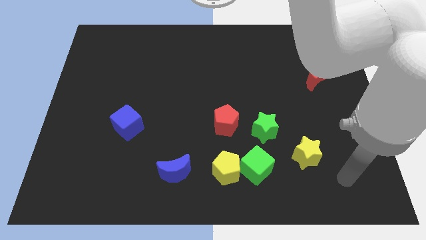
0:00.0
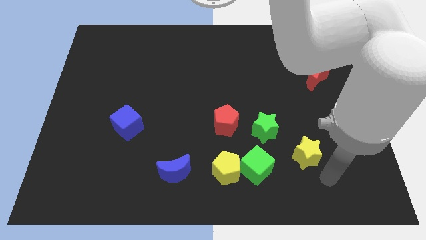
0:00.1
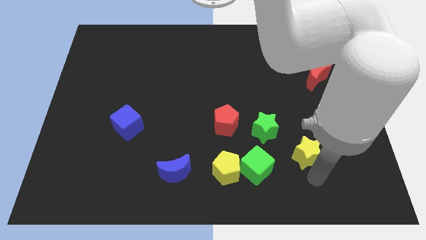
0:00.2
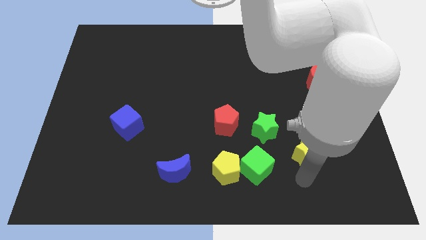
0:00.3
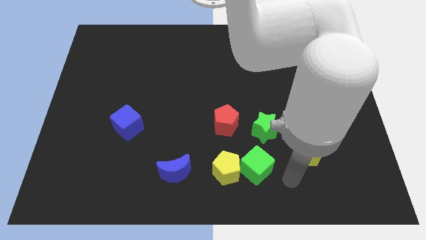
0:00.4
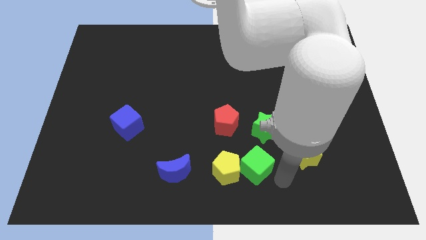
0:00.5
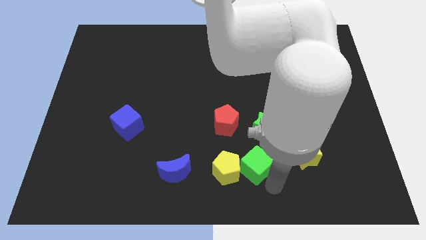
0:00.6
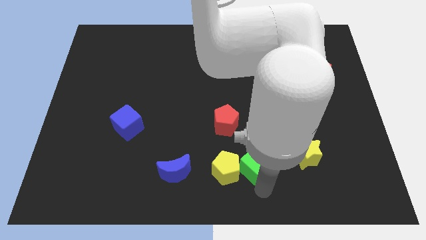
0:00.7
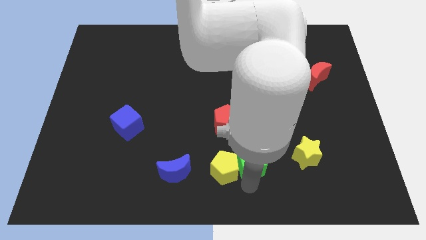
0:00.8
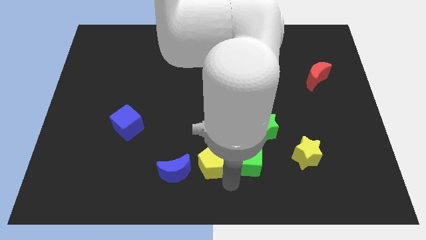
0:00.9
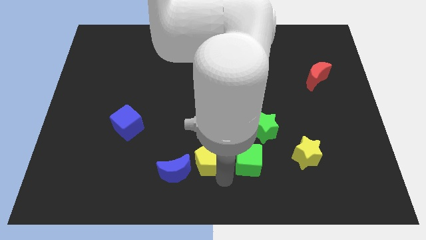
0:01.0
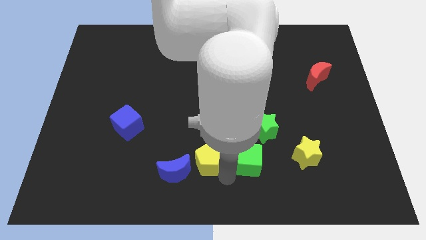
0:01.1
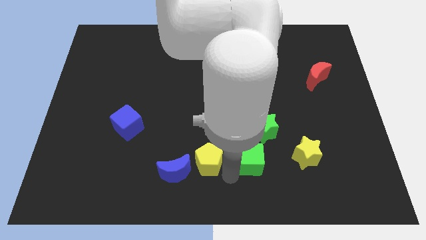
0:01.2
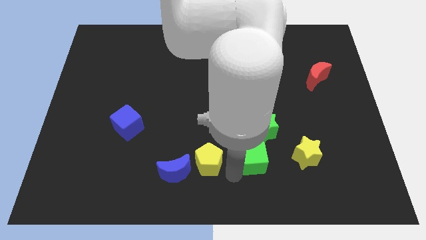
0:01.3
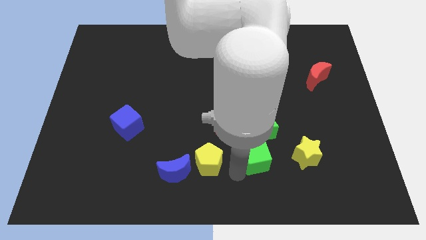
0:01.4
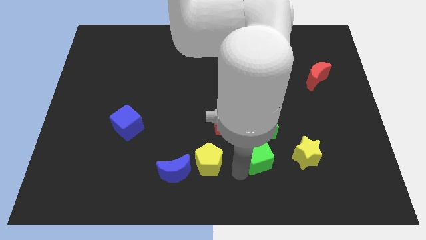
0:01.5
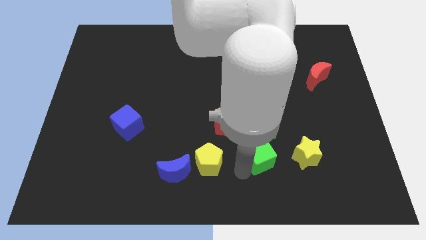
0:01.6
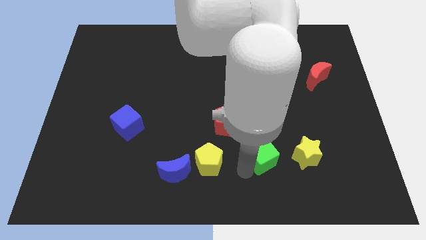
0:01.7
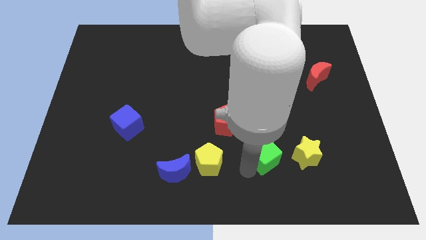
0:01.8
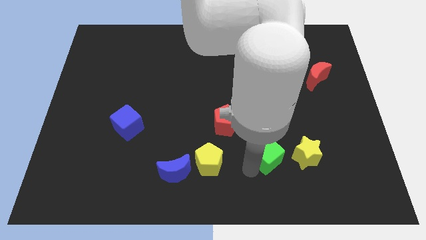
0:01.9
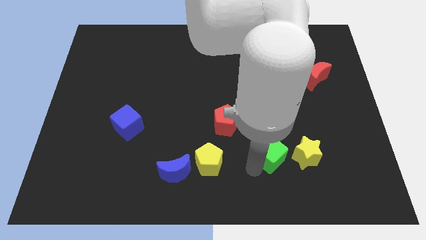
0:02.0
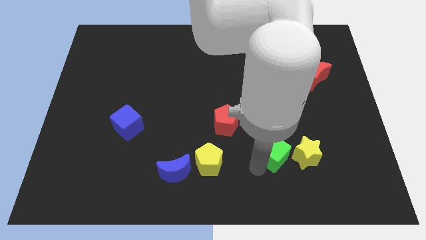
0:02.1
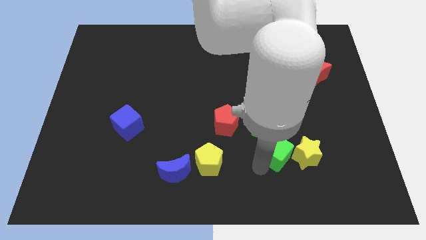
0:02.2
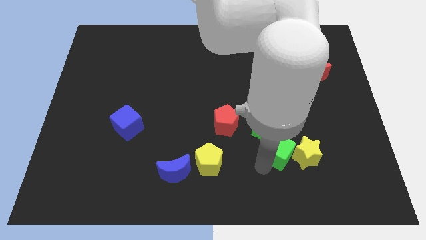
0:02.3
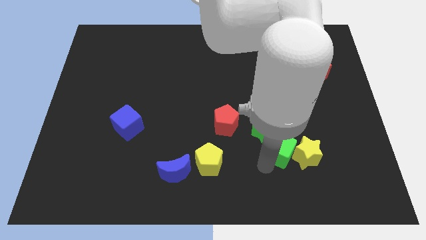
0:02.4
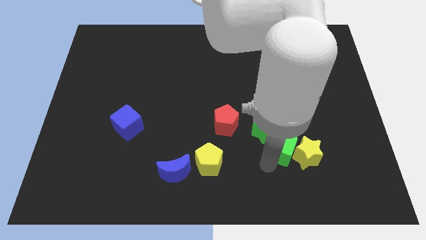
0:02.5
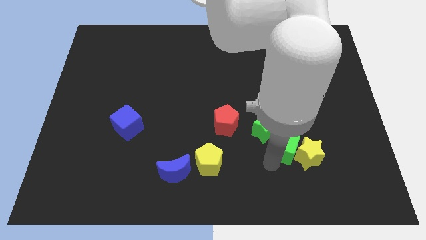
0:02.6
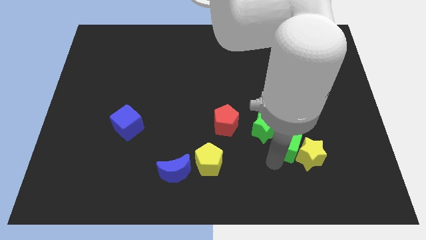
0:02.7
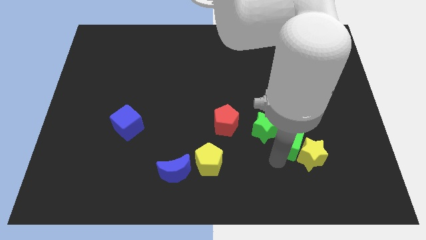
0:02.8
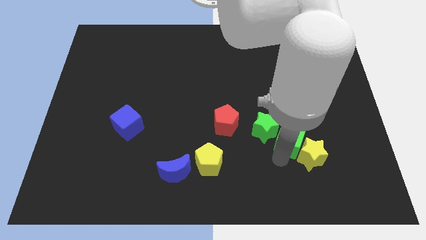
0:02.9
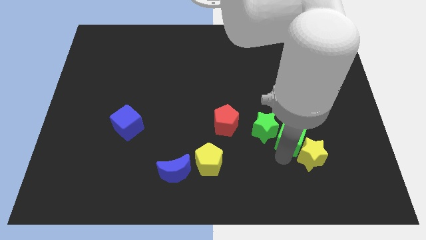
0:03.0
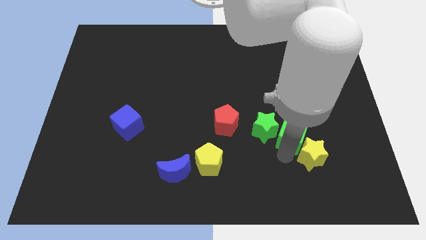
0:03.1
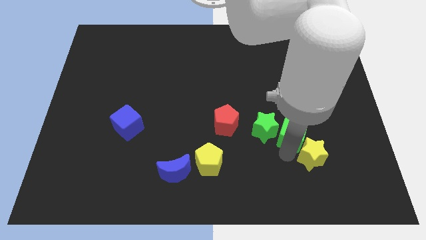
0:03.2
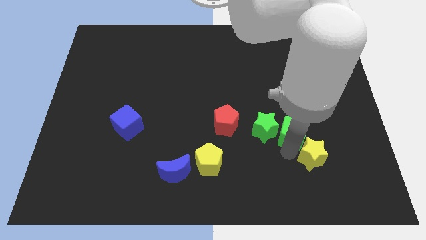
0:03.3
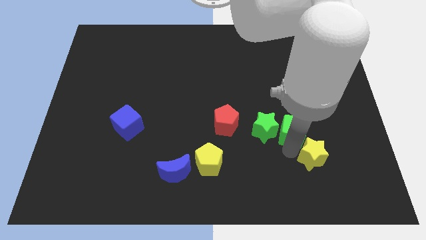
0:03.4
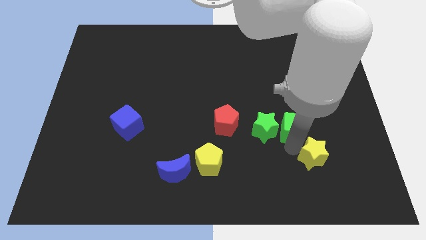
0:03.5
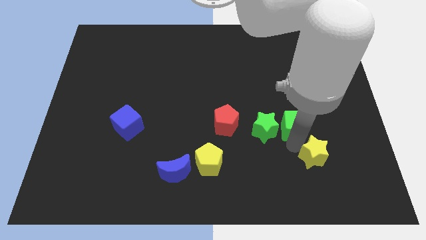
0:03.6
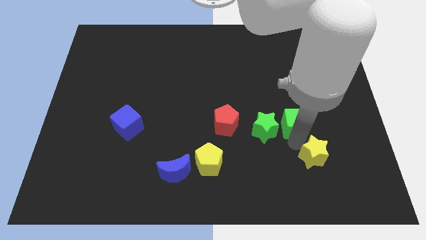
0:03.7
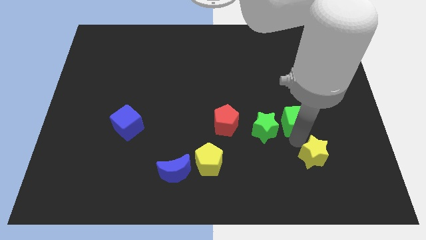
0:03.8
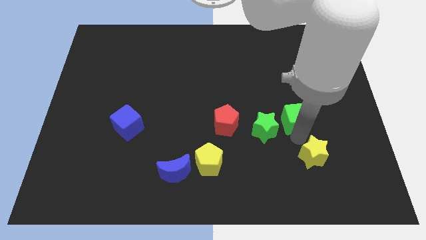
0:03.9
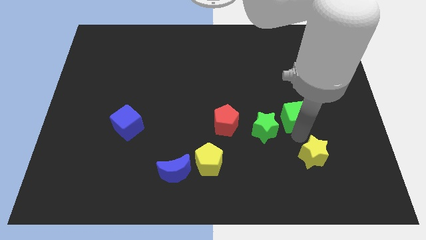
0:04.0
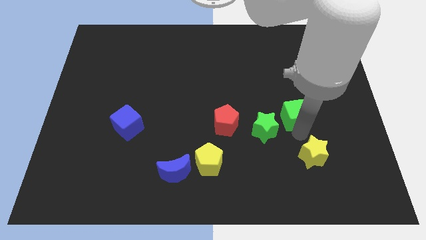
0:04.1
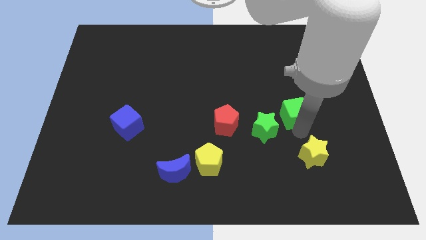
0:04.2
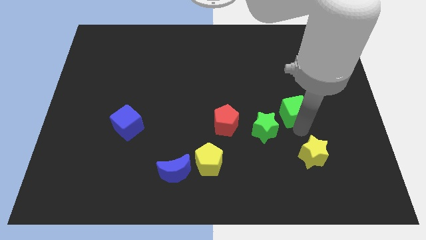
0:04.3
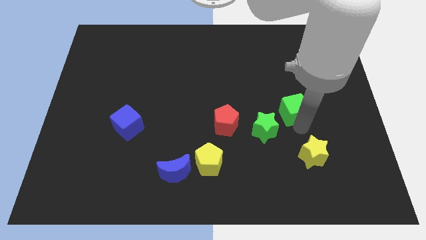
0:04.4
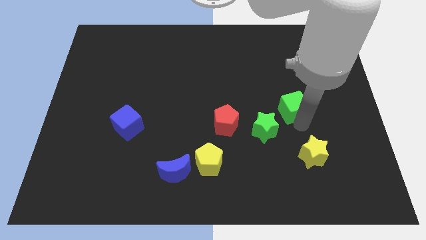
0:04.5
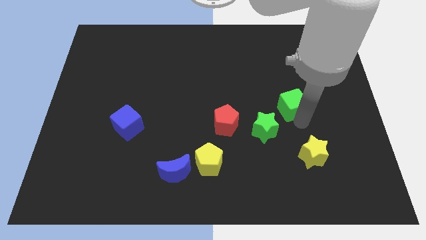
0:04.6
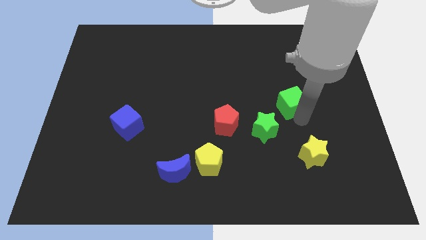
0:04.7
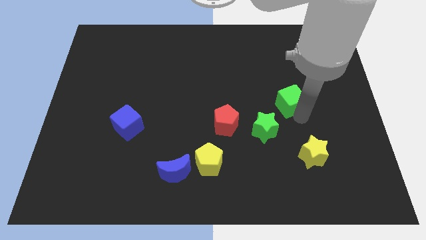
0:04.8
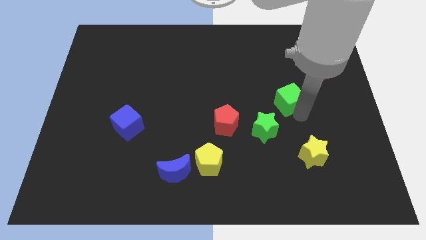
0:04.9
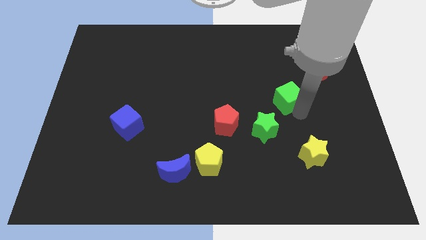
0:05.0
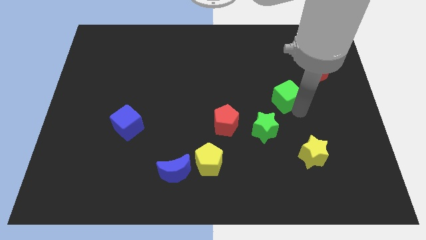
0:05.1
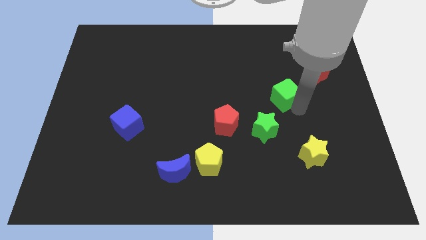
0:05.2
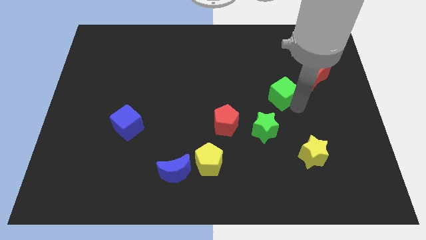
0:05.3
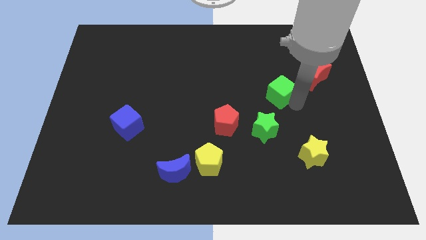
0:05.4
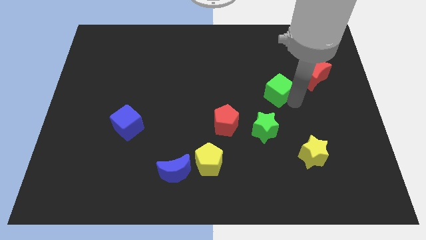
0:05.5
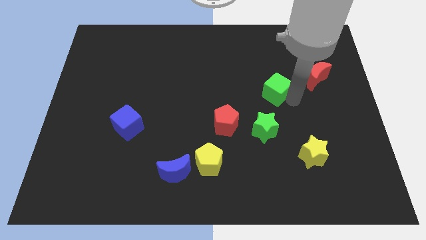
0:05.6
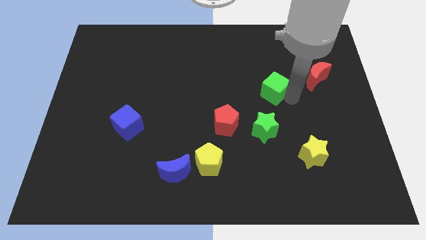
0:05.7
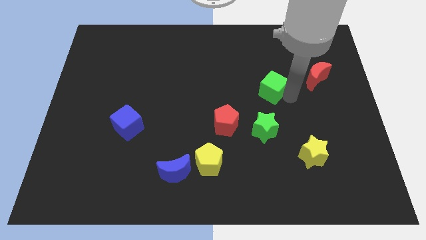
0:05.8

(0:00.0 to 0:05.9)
push the green cube up

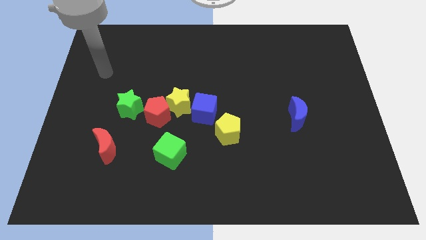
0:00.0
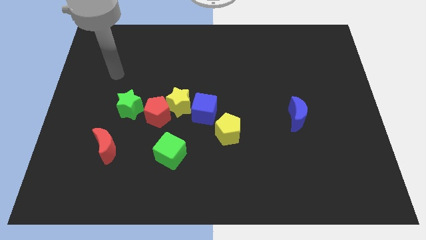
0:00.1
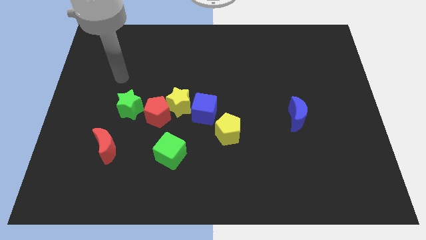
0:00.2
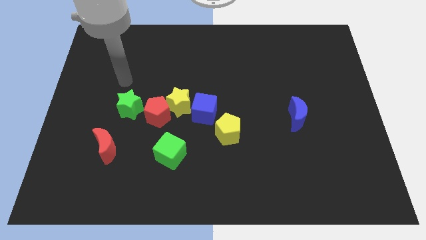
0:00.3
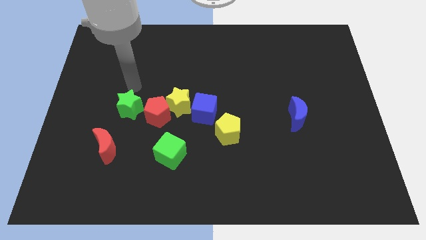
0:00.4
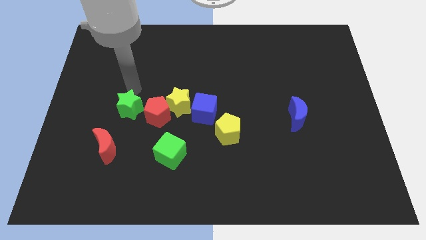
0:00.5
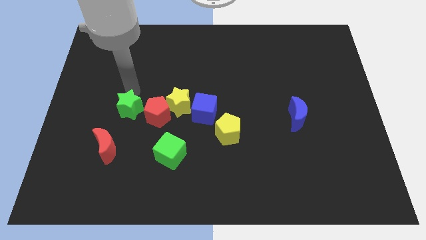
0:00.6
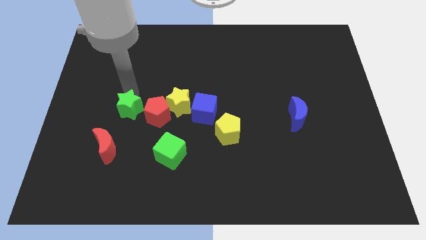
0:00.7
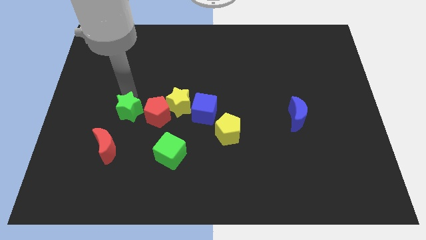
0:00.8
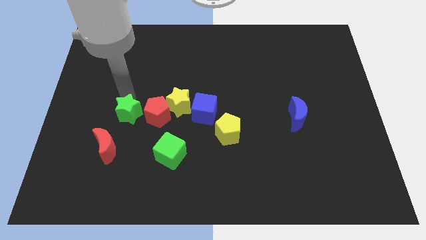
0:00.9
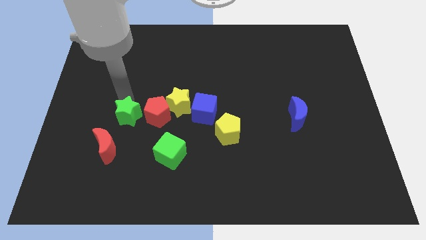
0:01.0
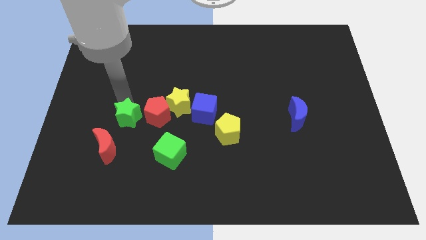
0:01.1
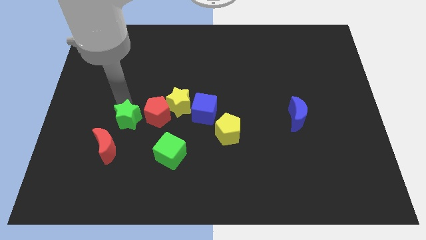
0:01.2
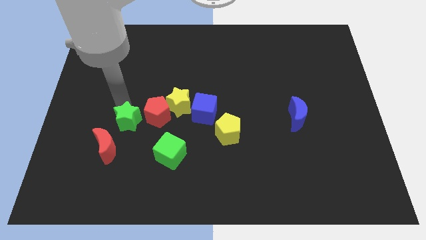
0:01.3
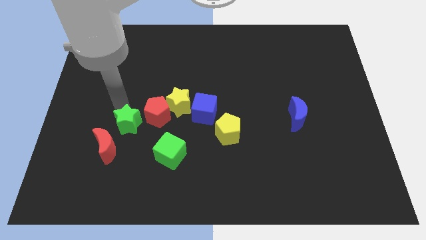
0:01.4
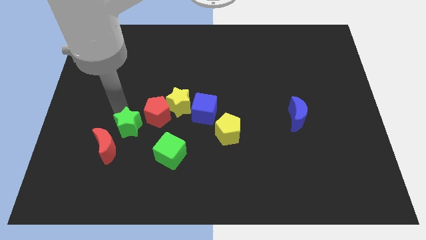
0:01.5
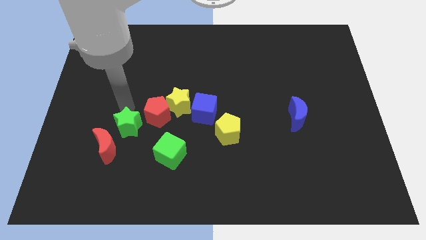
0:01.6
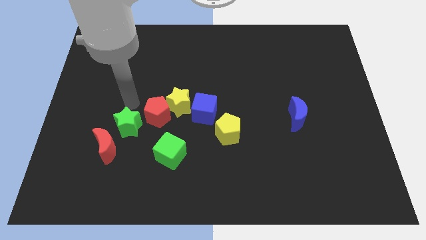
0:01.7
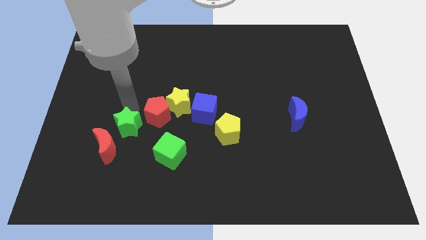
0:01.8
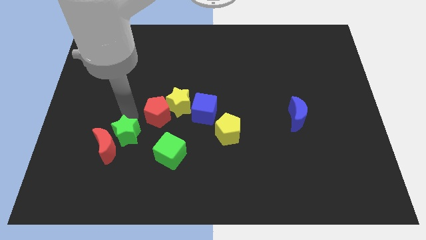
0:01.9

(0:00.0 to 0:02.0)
move the green star down a little bit

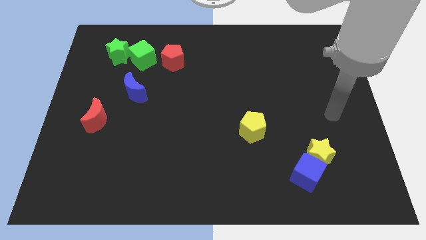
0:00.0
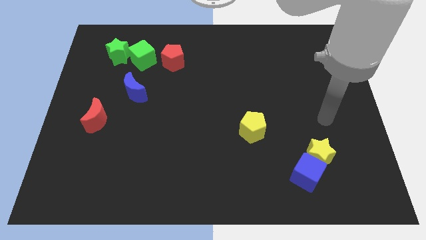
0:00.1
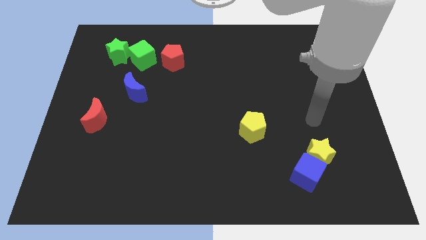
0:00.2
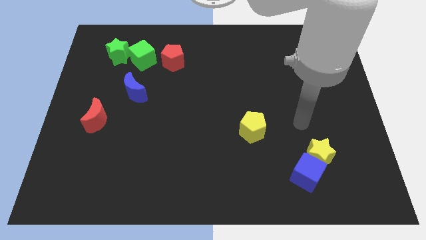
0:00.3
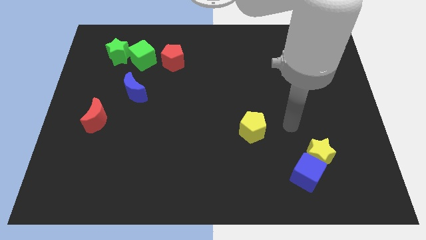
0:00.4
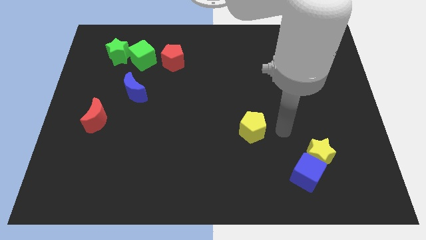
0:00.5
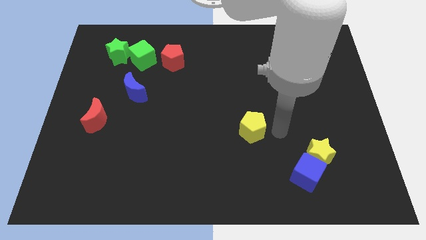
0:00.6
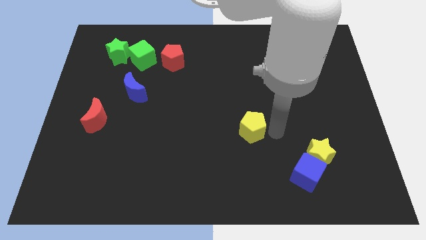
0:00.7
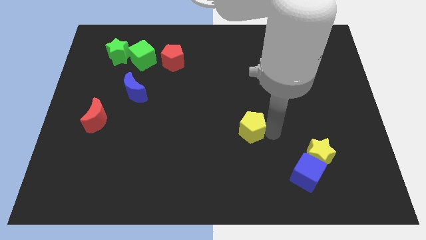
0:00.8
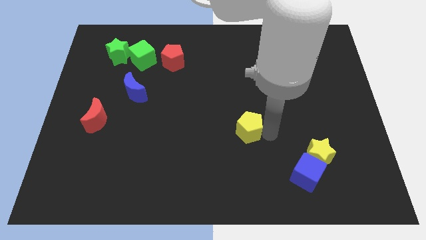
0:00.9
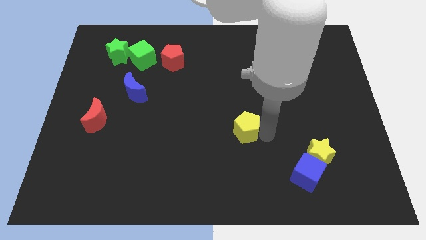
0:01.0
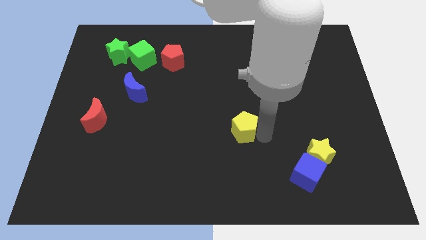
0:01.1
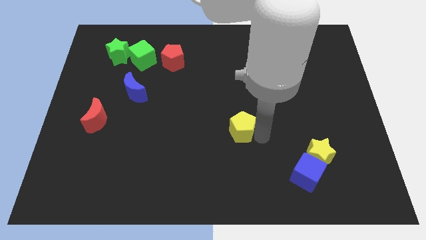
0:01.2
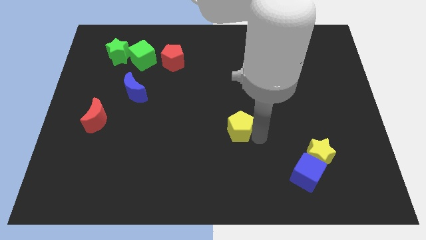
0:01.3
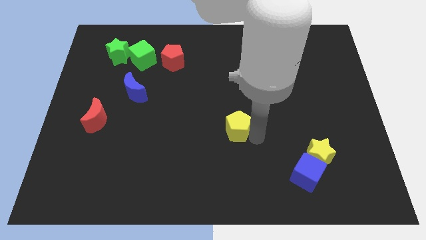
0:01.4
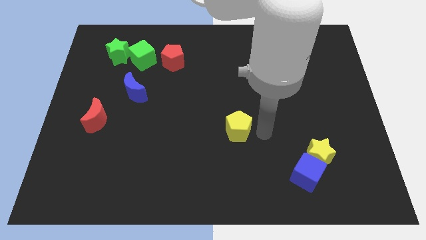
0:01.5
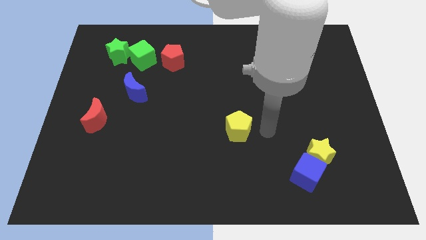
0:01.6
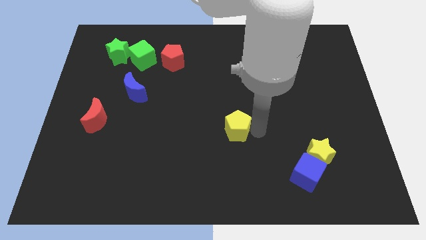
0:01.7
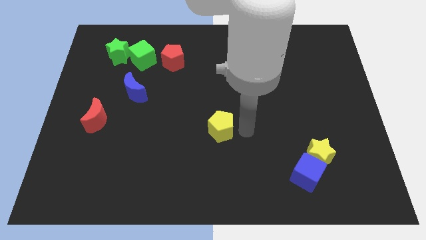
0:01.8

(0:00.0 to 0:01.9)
move the yellow pentagon somewhat to the left
